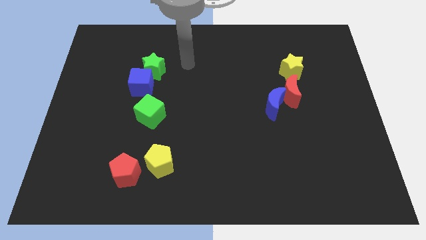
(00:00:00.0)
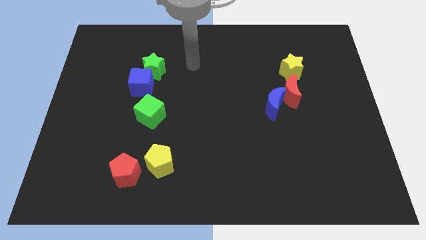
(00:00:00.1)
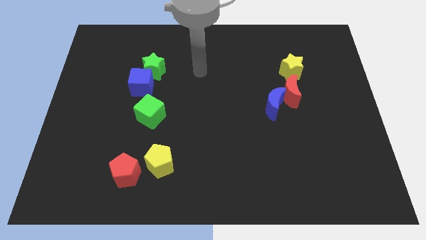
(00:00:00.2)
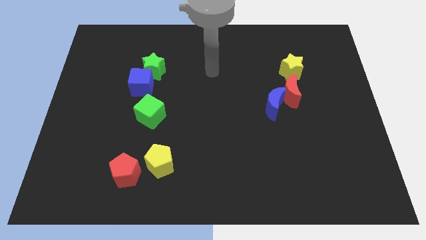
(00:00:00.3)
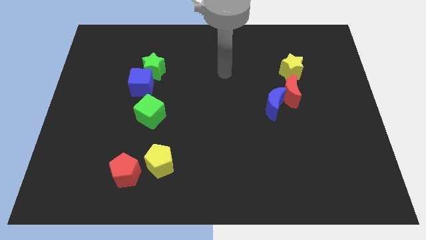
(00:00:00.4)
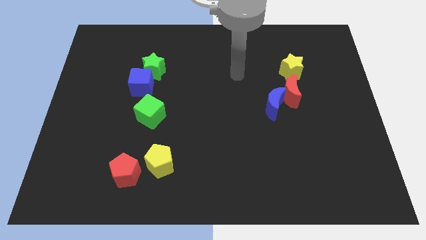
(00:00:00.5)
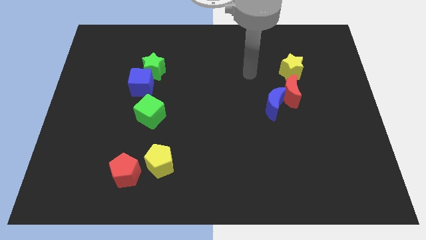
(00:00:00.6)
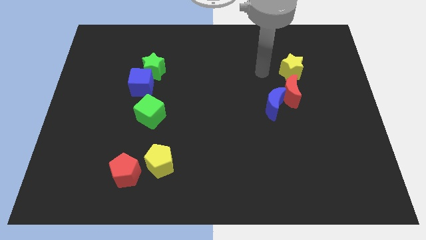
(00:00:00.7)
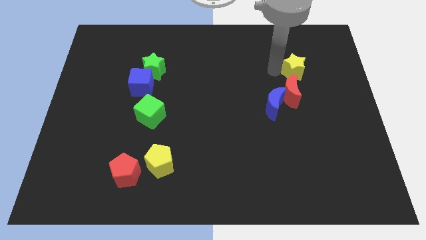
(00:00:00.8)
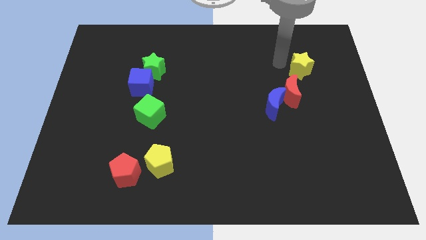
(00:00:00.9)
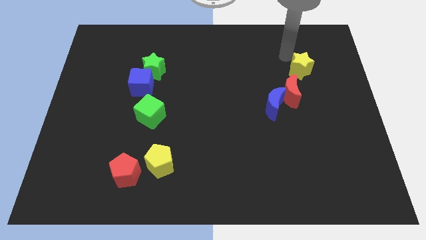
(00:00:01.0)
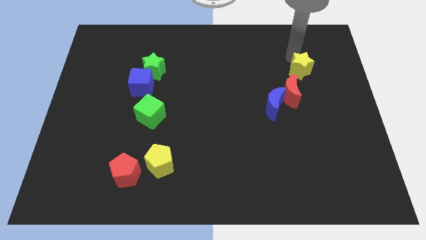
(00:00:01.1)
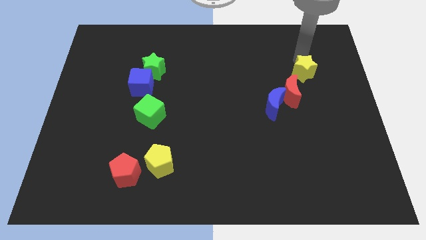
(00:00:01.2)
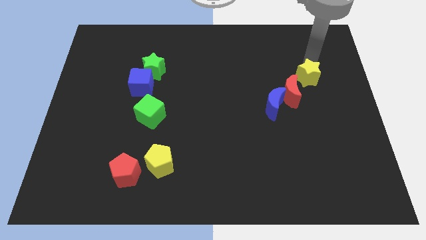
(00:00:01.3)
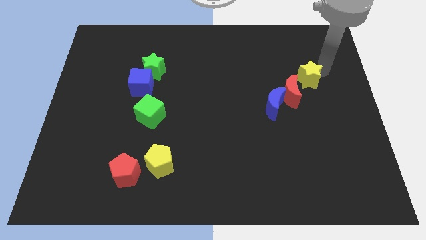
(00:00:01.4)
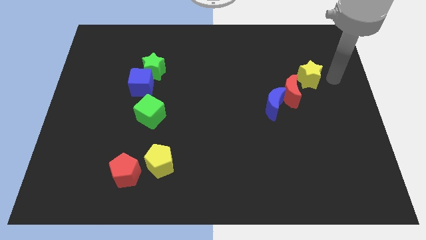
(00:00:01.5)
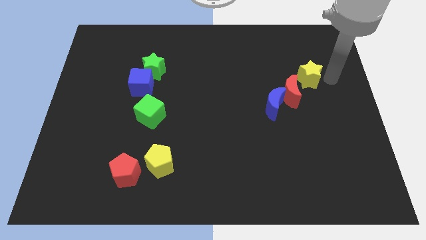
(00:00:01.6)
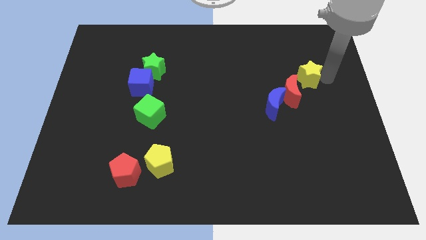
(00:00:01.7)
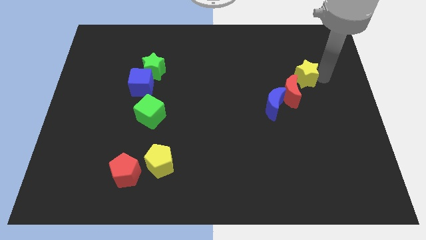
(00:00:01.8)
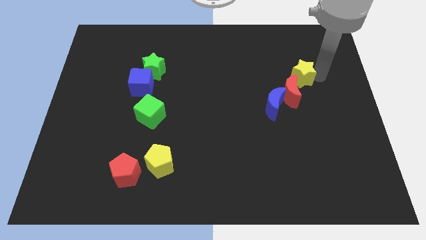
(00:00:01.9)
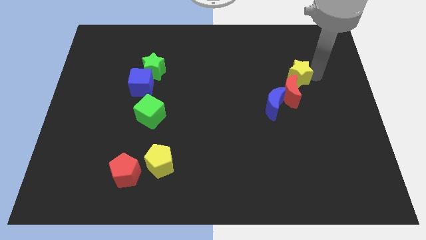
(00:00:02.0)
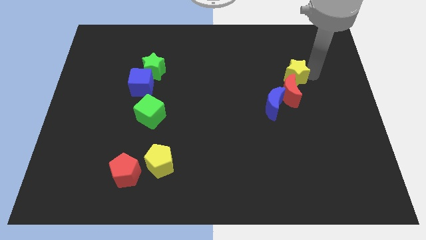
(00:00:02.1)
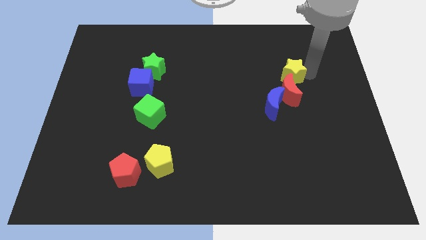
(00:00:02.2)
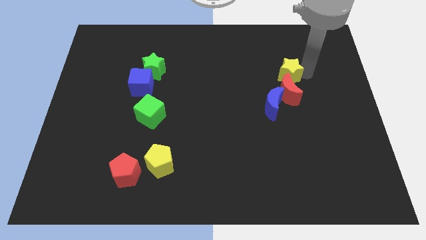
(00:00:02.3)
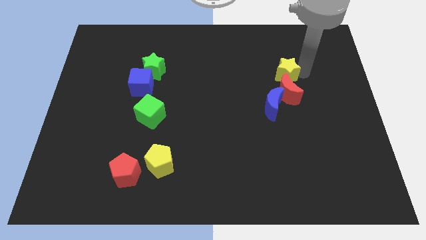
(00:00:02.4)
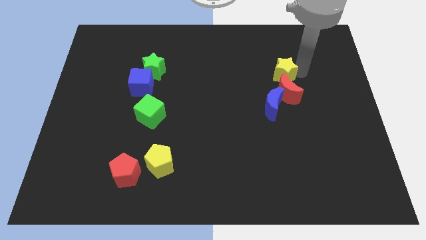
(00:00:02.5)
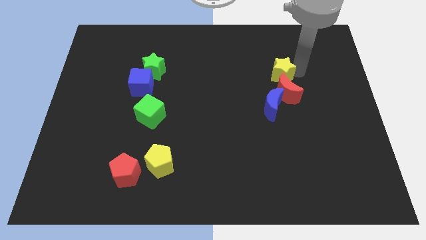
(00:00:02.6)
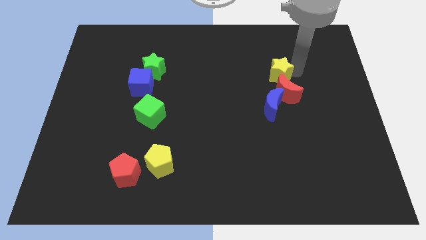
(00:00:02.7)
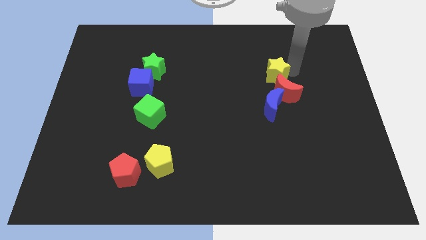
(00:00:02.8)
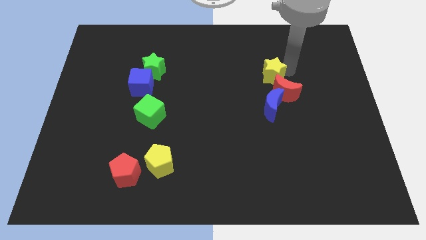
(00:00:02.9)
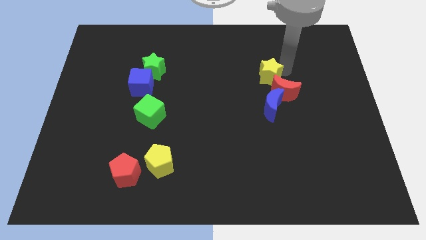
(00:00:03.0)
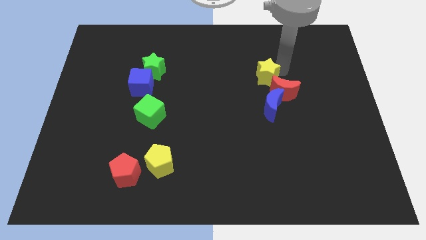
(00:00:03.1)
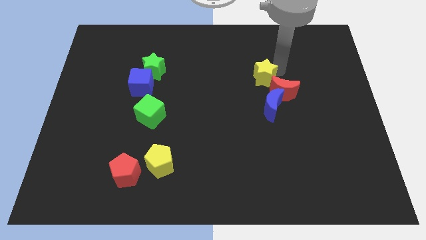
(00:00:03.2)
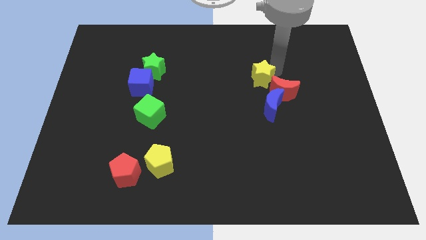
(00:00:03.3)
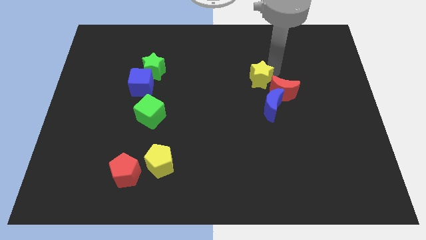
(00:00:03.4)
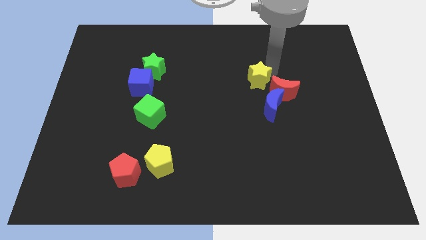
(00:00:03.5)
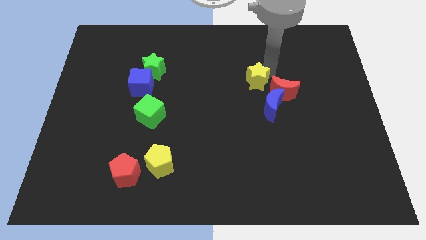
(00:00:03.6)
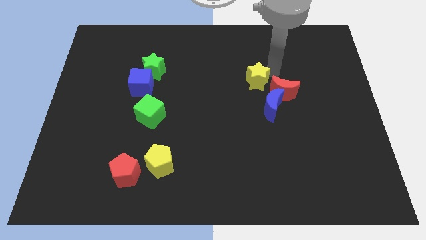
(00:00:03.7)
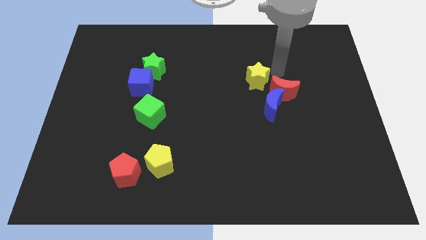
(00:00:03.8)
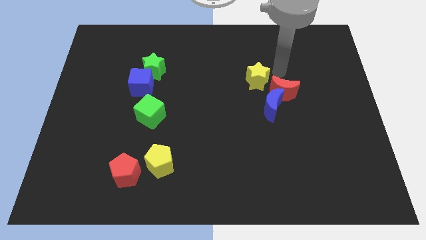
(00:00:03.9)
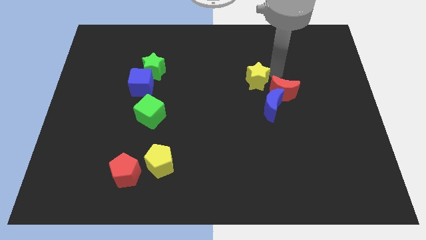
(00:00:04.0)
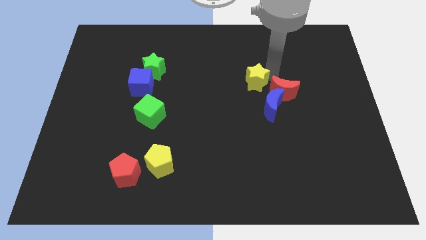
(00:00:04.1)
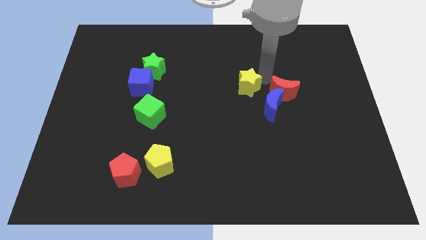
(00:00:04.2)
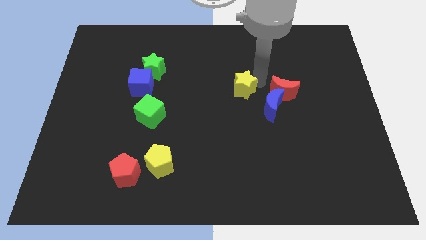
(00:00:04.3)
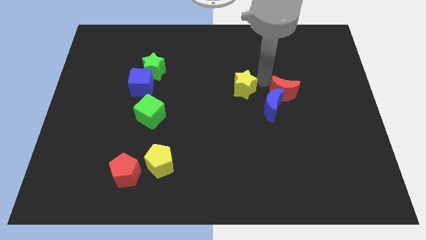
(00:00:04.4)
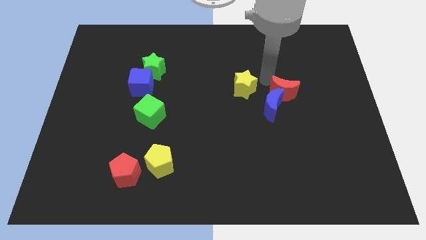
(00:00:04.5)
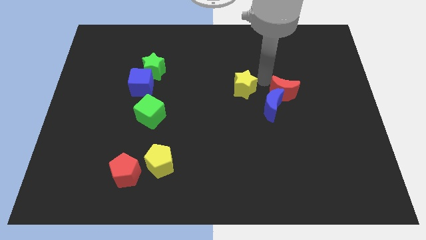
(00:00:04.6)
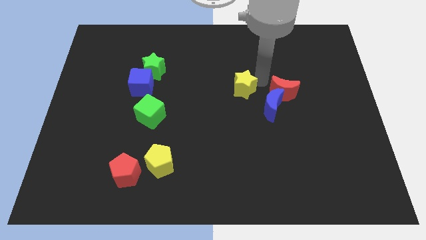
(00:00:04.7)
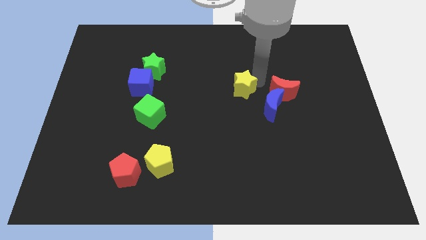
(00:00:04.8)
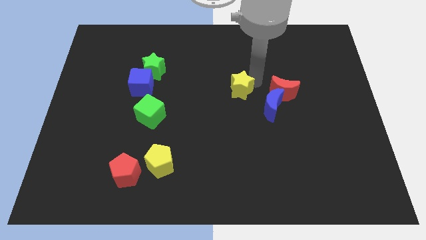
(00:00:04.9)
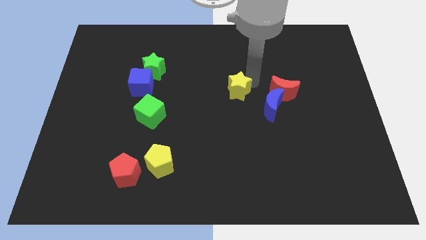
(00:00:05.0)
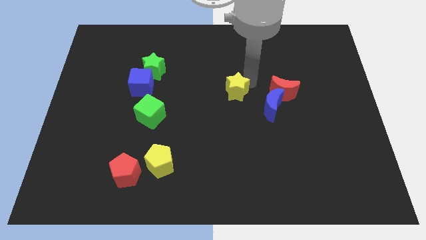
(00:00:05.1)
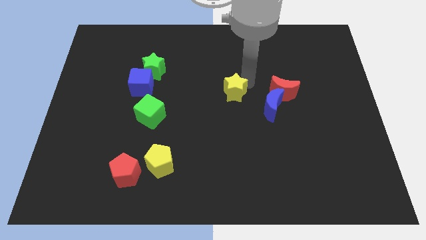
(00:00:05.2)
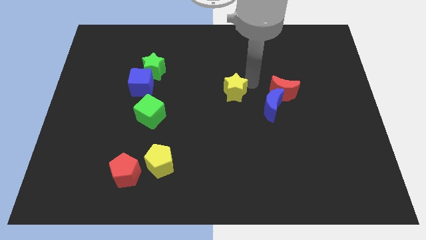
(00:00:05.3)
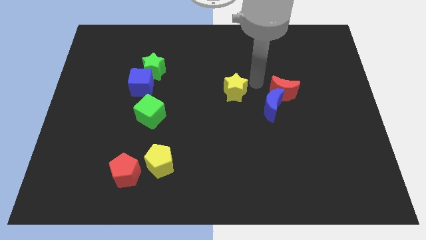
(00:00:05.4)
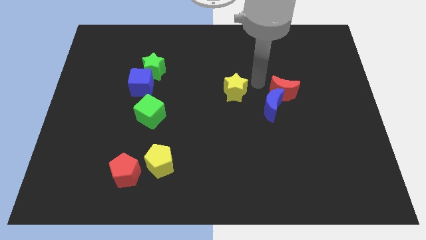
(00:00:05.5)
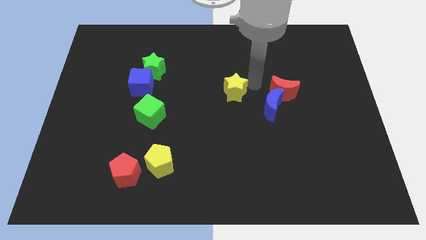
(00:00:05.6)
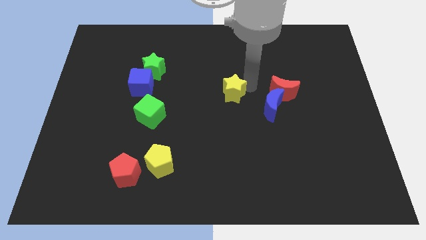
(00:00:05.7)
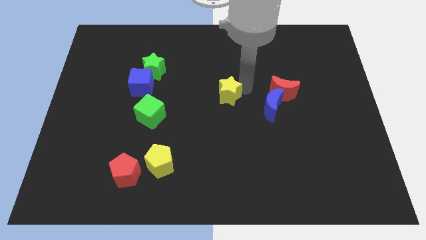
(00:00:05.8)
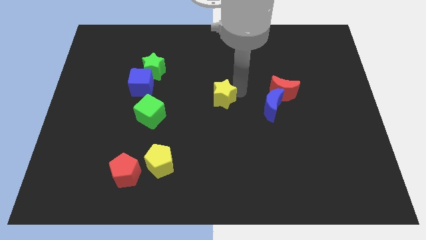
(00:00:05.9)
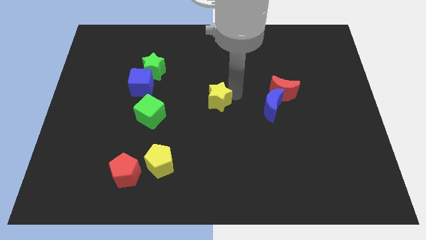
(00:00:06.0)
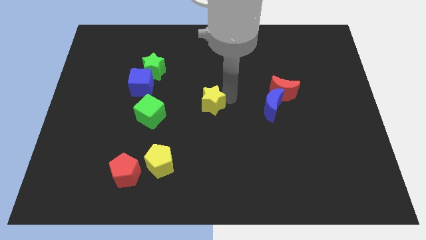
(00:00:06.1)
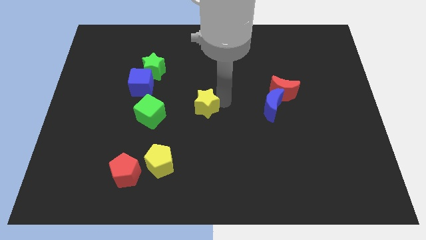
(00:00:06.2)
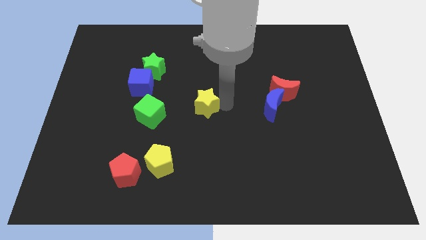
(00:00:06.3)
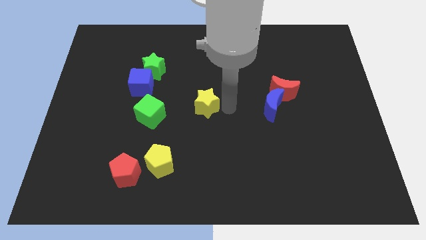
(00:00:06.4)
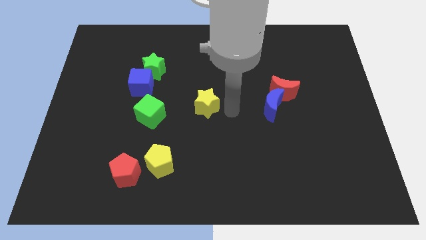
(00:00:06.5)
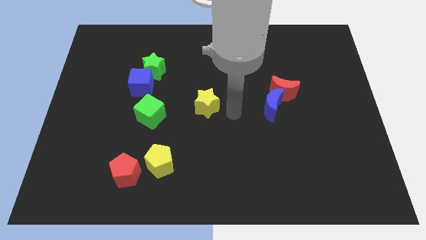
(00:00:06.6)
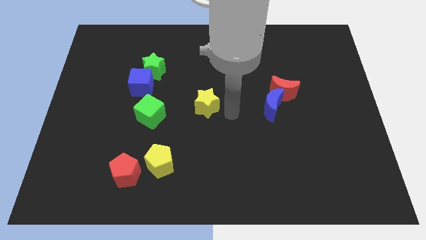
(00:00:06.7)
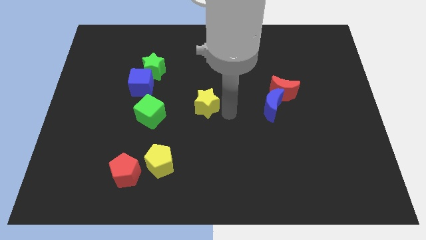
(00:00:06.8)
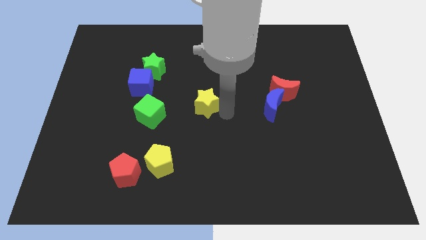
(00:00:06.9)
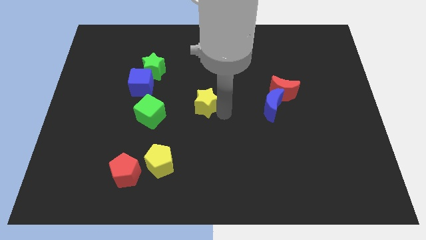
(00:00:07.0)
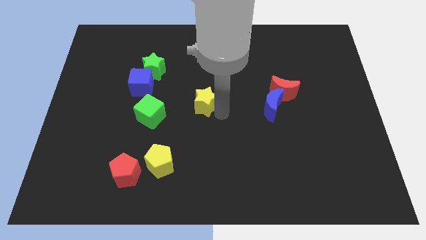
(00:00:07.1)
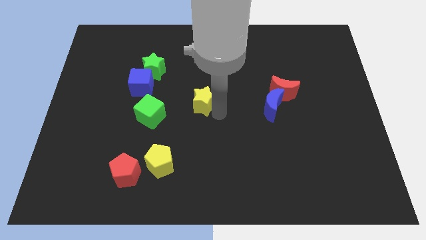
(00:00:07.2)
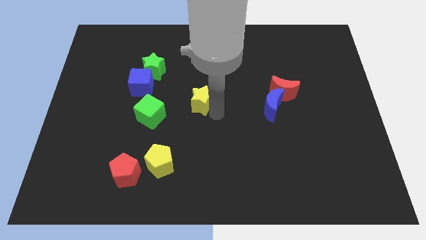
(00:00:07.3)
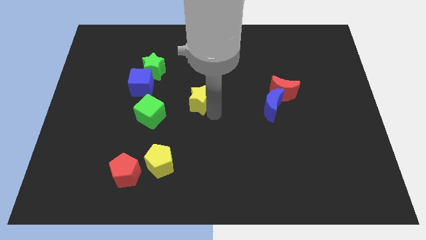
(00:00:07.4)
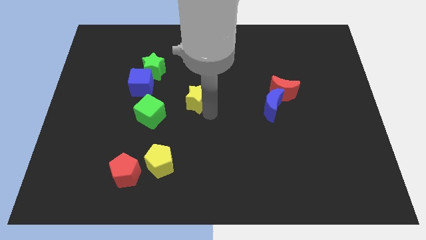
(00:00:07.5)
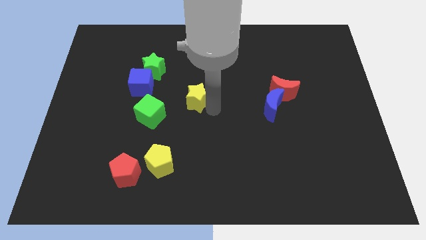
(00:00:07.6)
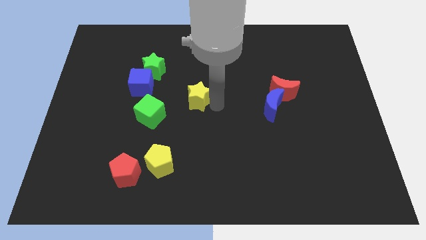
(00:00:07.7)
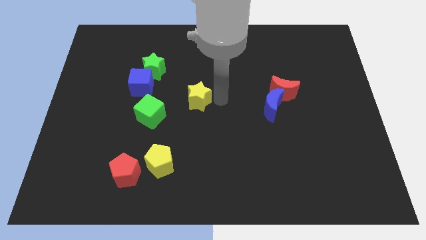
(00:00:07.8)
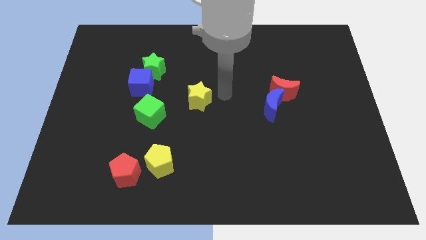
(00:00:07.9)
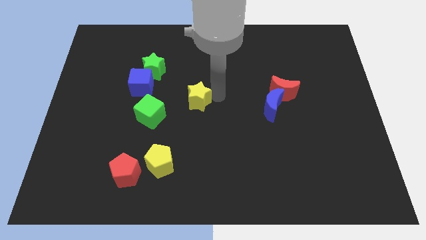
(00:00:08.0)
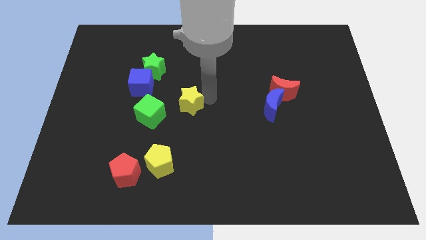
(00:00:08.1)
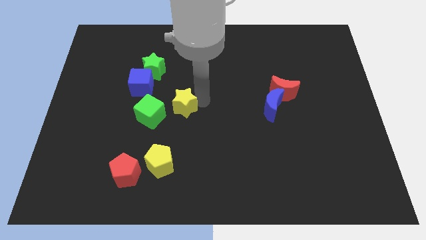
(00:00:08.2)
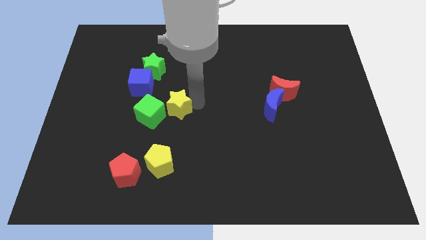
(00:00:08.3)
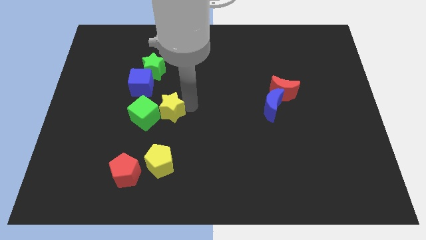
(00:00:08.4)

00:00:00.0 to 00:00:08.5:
put the yellow star close to the green cube
